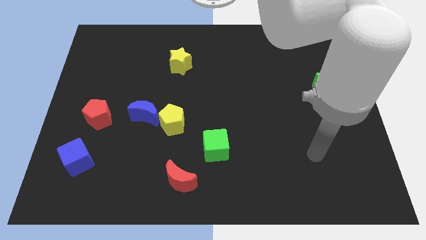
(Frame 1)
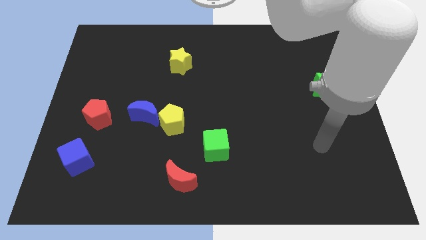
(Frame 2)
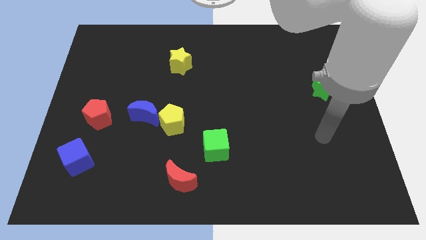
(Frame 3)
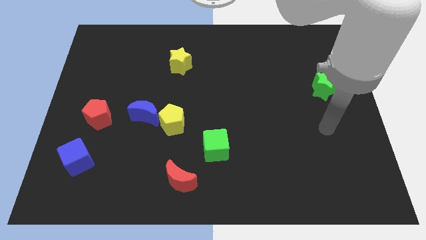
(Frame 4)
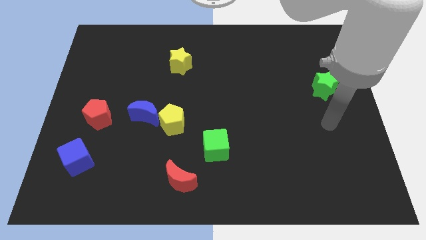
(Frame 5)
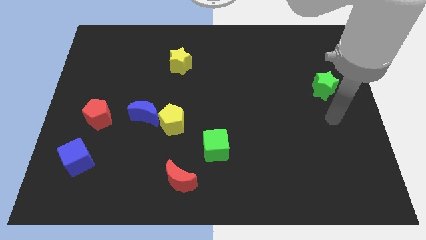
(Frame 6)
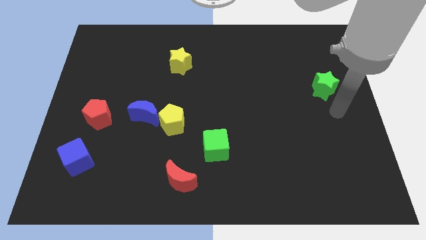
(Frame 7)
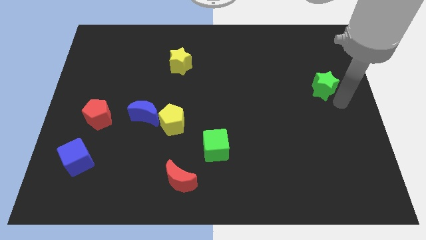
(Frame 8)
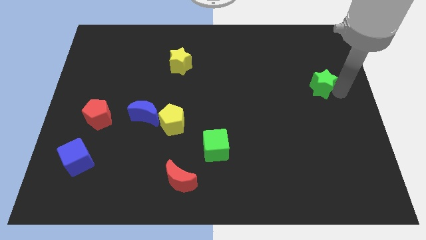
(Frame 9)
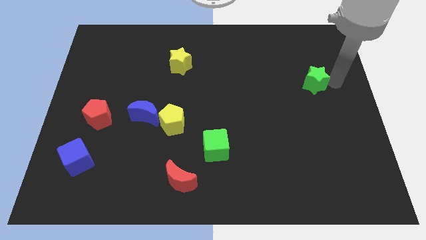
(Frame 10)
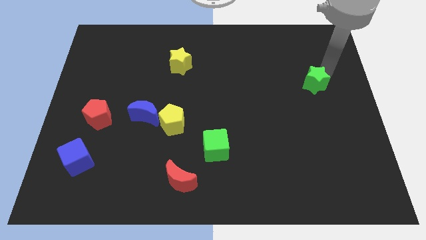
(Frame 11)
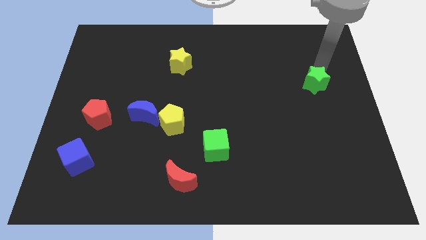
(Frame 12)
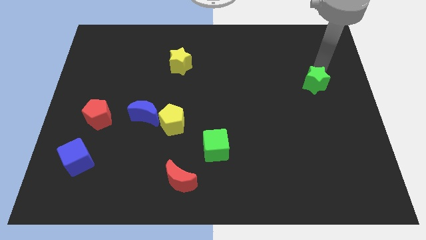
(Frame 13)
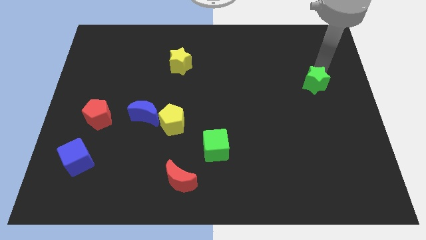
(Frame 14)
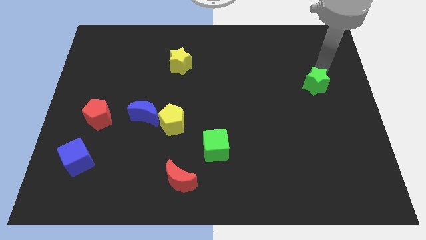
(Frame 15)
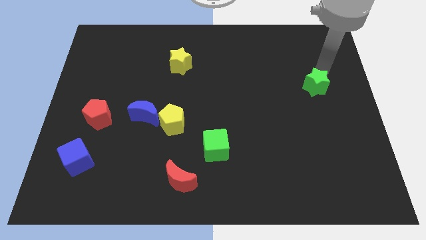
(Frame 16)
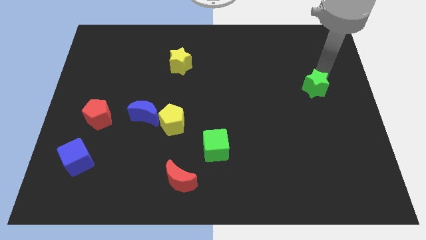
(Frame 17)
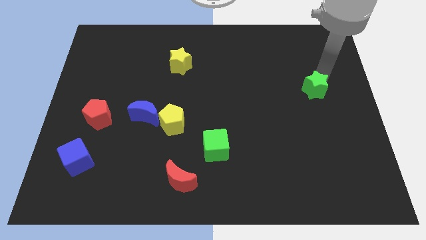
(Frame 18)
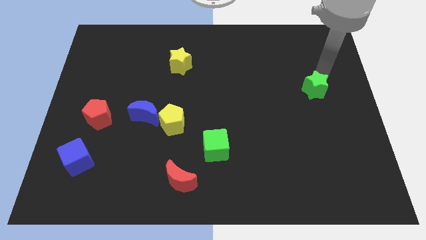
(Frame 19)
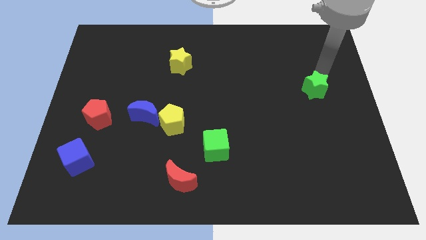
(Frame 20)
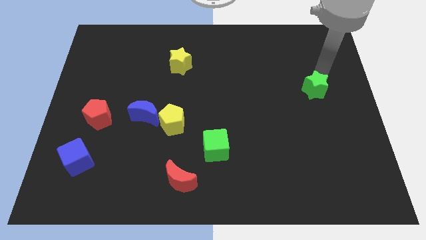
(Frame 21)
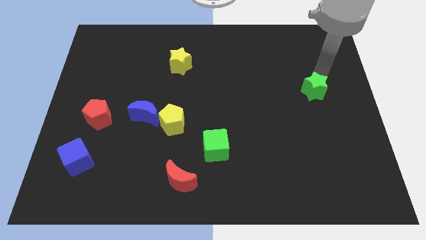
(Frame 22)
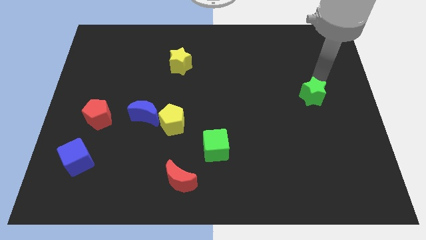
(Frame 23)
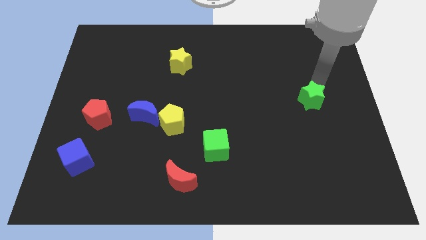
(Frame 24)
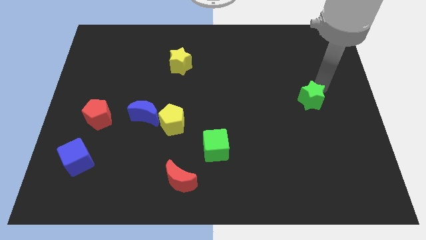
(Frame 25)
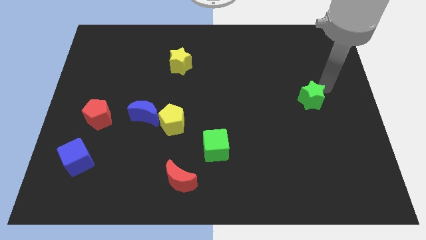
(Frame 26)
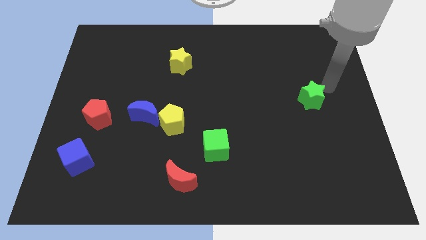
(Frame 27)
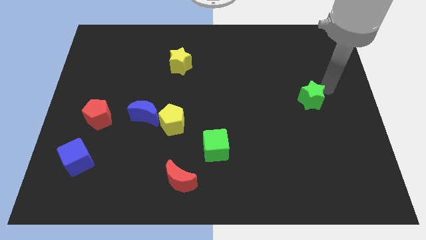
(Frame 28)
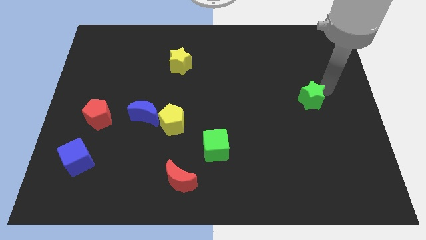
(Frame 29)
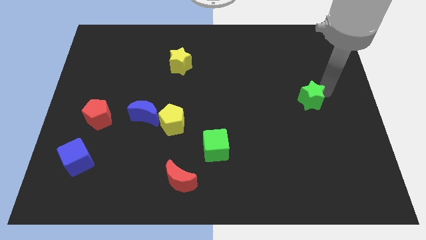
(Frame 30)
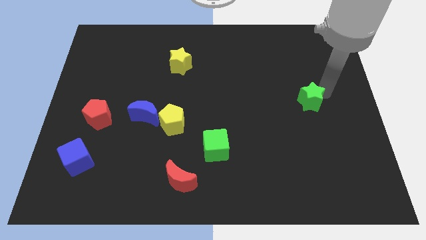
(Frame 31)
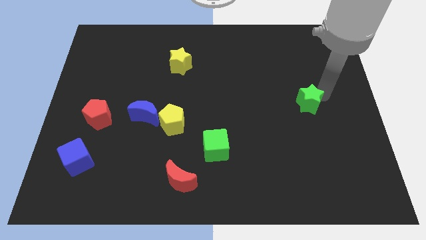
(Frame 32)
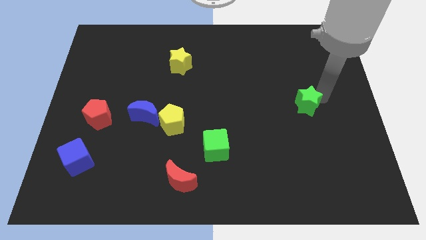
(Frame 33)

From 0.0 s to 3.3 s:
slightly slide the green star down and left

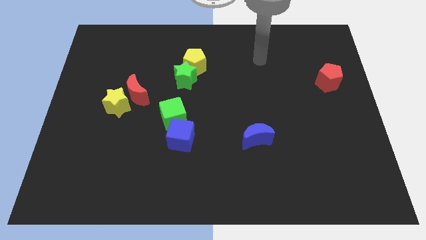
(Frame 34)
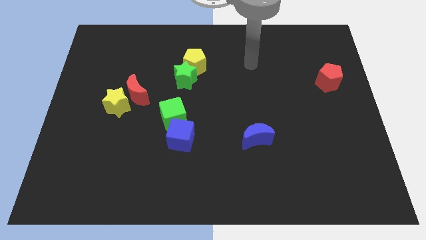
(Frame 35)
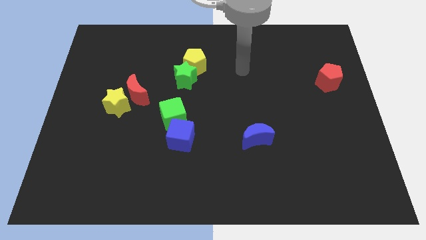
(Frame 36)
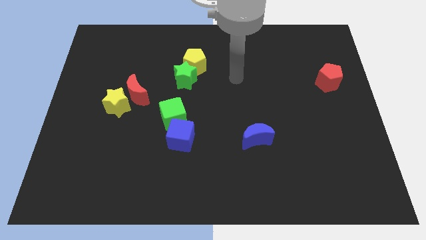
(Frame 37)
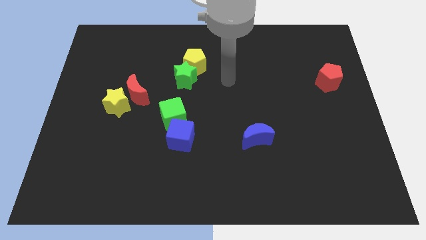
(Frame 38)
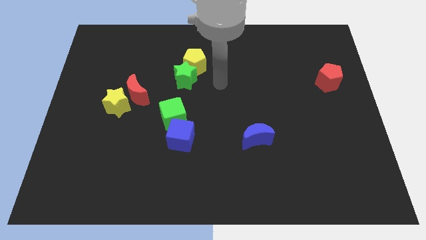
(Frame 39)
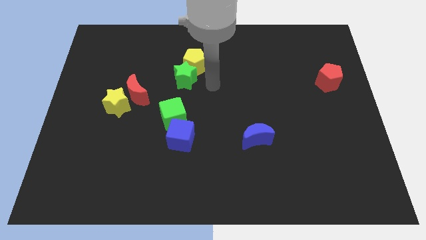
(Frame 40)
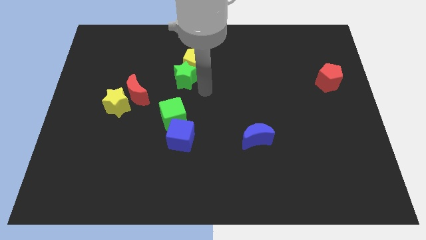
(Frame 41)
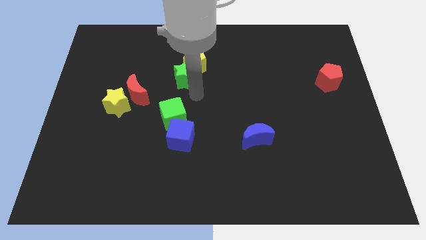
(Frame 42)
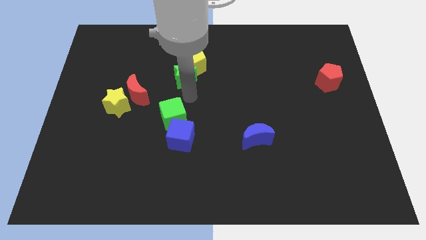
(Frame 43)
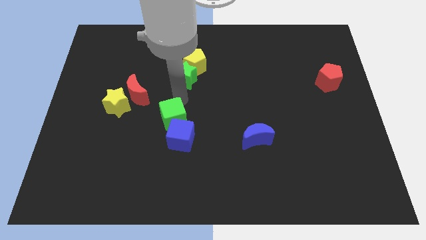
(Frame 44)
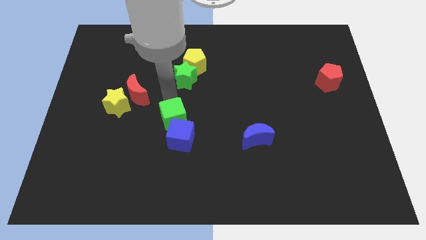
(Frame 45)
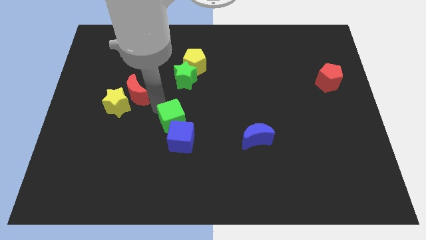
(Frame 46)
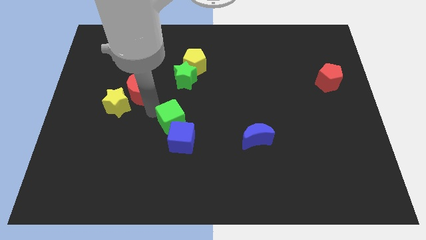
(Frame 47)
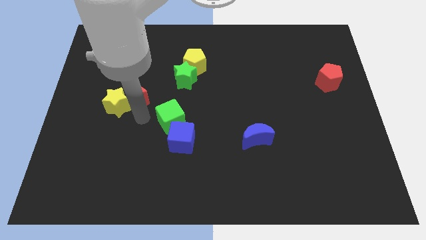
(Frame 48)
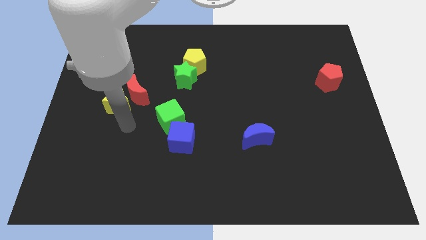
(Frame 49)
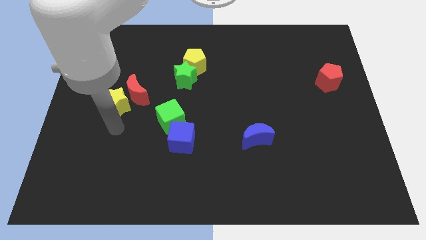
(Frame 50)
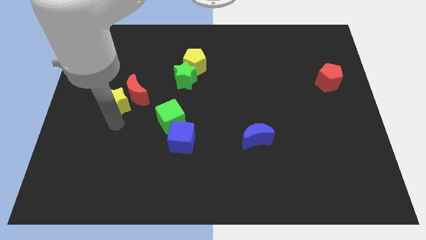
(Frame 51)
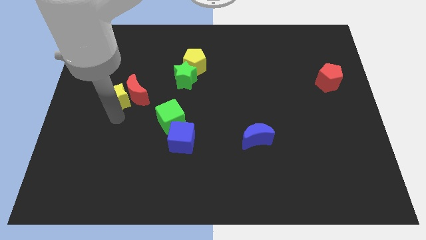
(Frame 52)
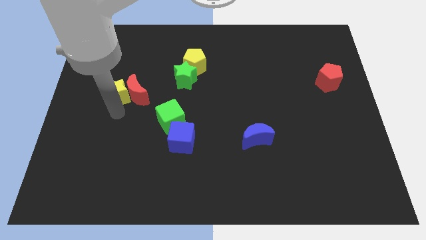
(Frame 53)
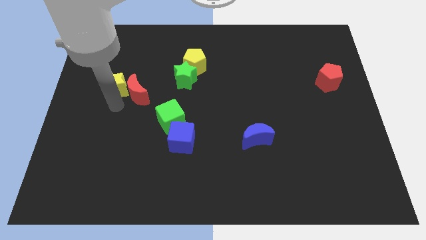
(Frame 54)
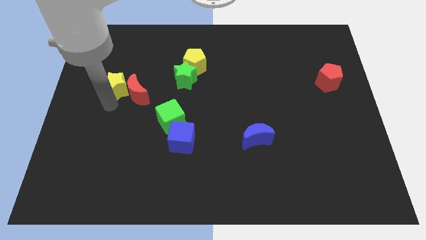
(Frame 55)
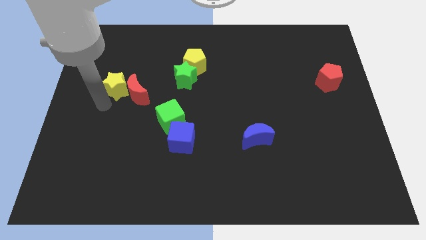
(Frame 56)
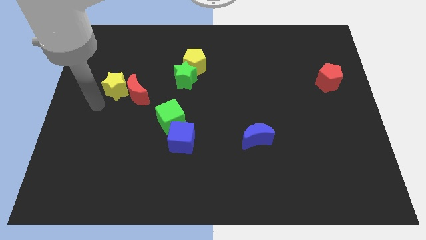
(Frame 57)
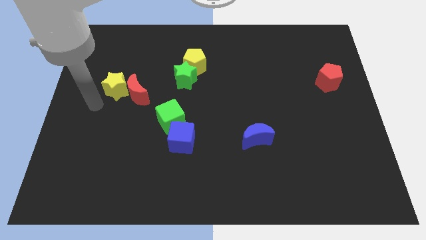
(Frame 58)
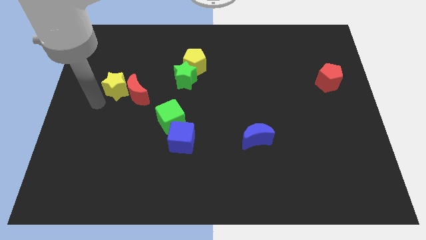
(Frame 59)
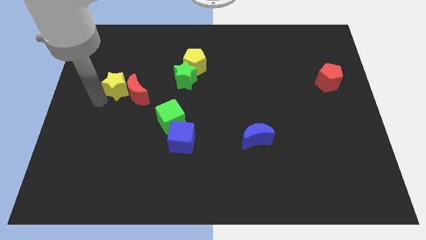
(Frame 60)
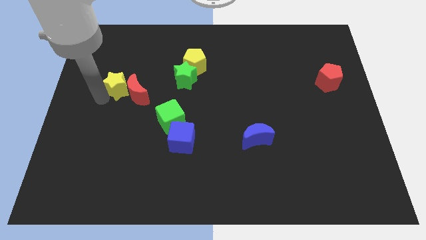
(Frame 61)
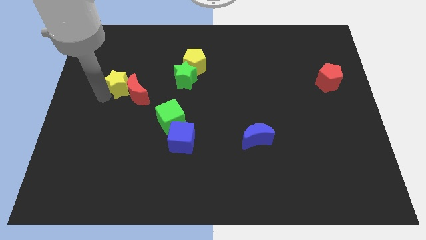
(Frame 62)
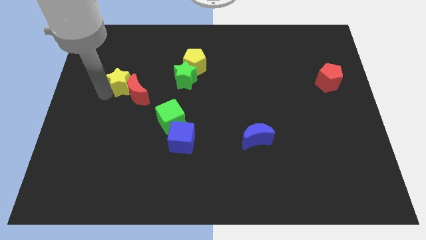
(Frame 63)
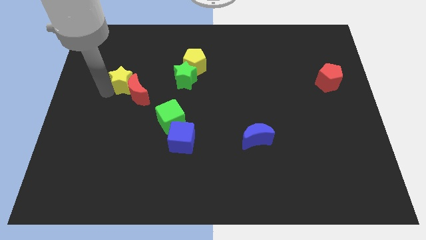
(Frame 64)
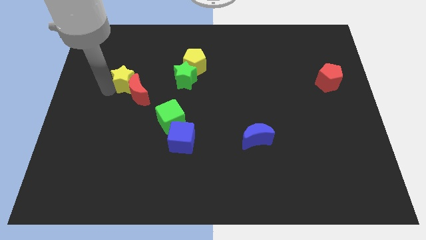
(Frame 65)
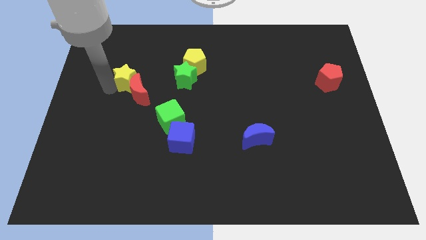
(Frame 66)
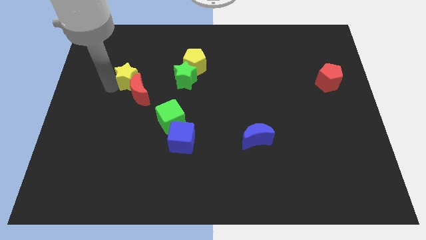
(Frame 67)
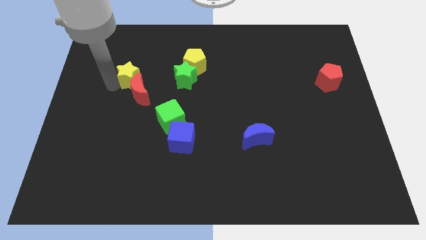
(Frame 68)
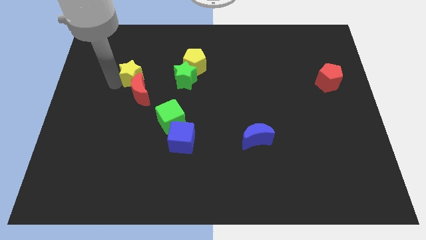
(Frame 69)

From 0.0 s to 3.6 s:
slightly move the yellow star up and to the right diagonally

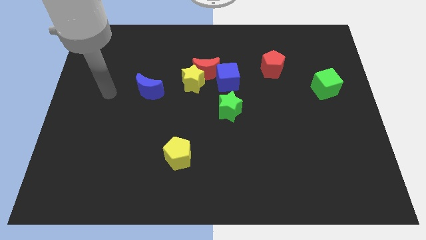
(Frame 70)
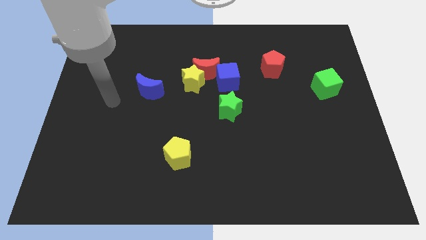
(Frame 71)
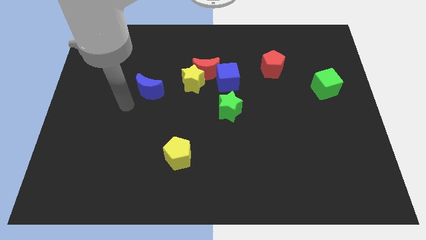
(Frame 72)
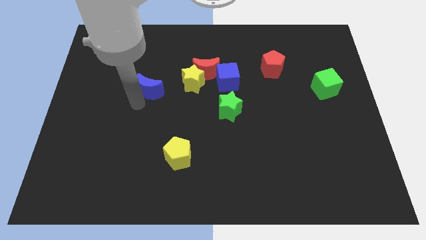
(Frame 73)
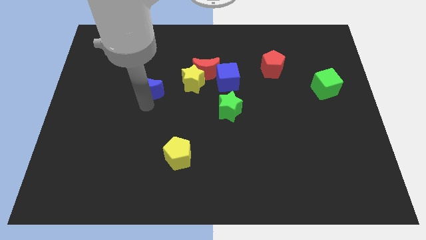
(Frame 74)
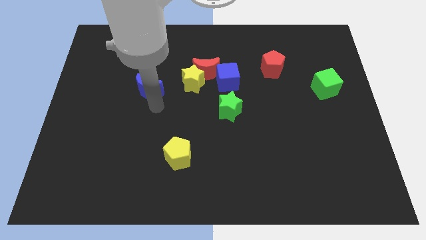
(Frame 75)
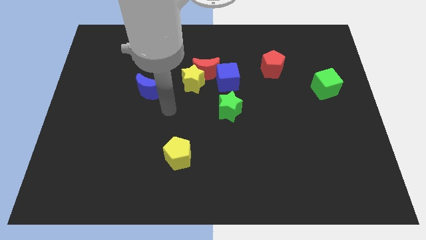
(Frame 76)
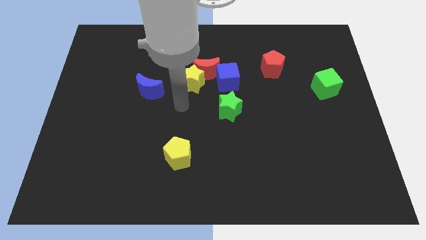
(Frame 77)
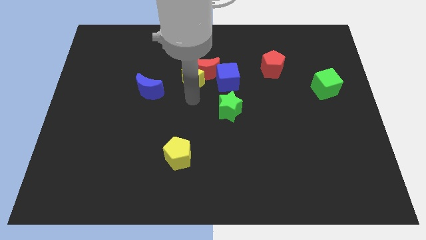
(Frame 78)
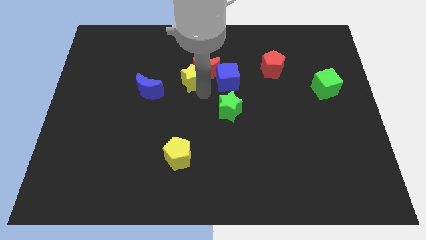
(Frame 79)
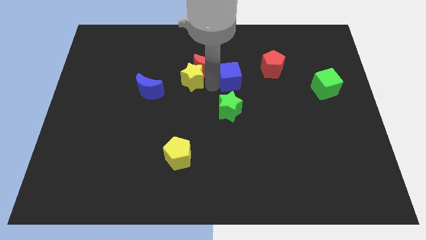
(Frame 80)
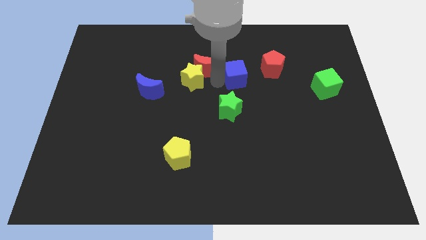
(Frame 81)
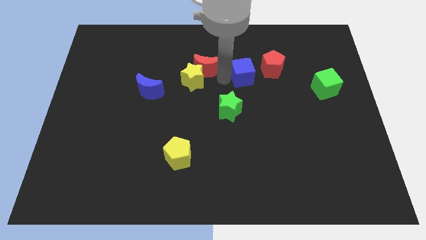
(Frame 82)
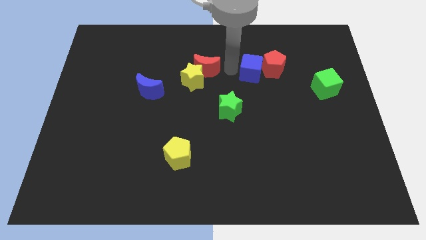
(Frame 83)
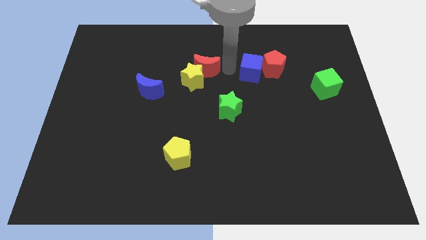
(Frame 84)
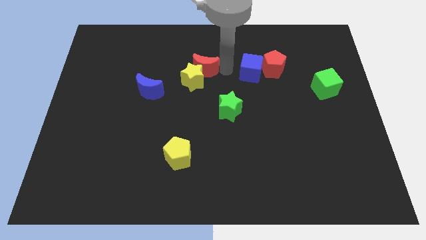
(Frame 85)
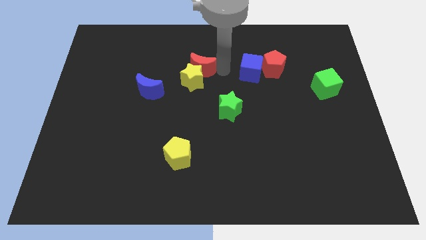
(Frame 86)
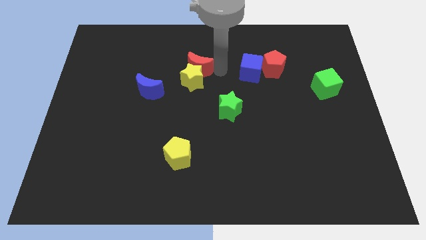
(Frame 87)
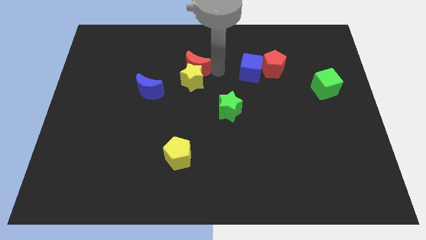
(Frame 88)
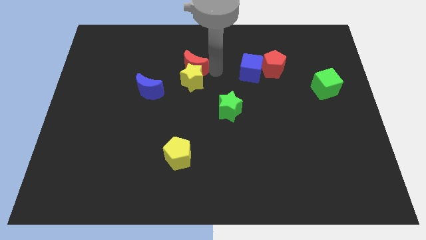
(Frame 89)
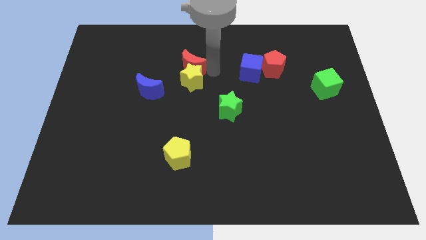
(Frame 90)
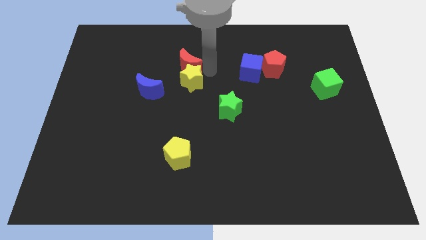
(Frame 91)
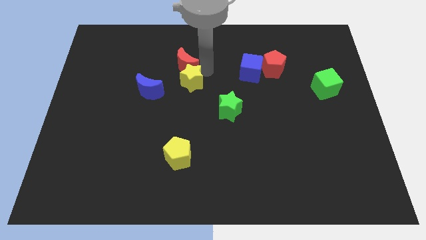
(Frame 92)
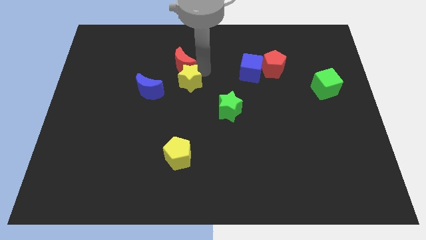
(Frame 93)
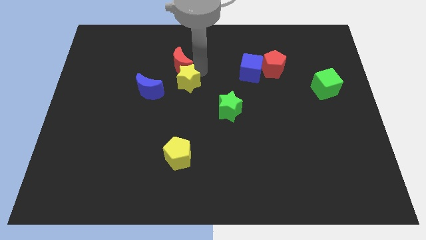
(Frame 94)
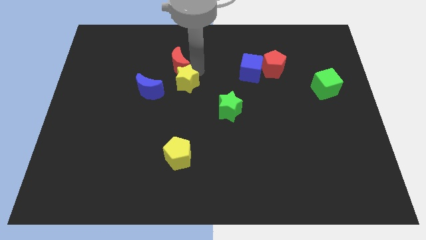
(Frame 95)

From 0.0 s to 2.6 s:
slightly move the red moon to the left
